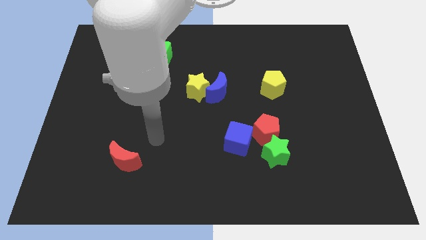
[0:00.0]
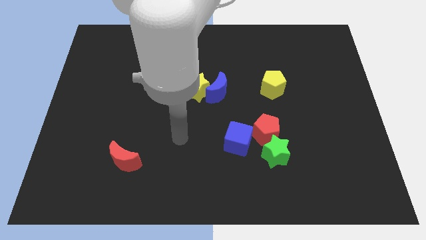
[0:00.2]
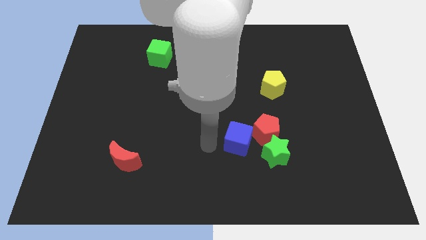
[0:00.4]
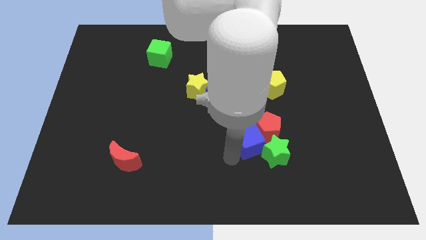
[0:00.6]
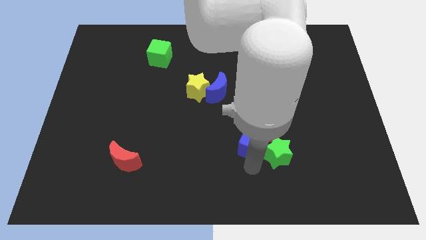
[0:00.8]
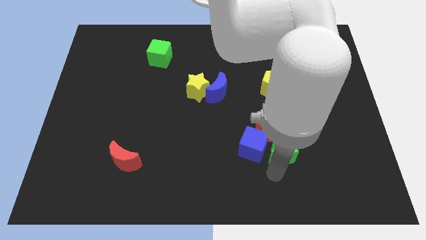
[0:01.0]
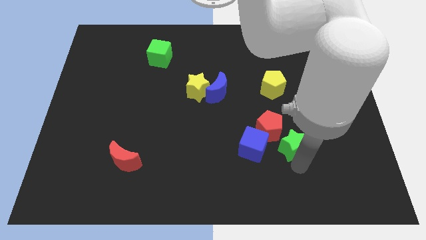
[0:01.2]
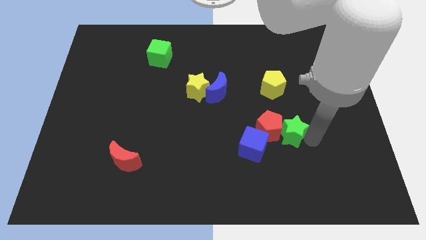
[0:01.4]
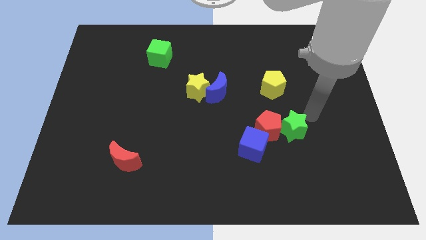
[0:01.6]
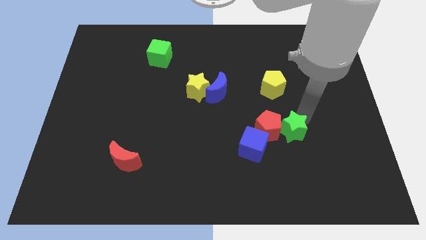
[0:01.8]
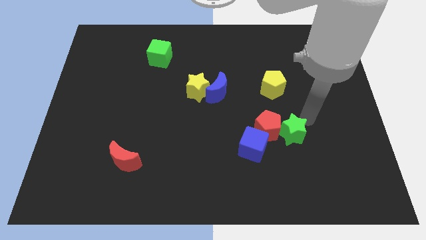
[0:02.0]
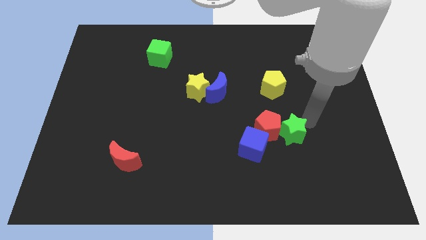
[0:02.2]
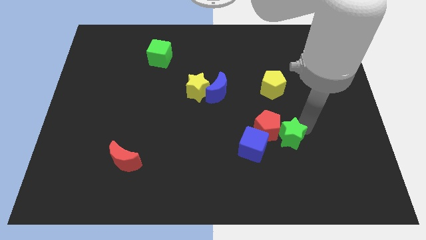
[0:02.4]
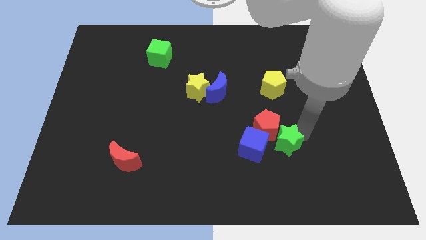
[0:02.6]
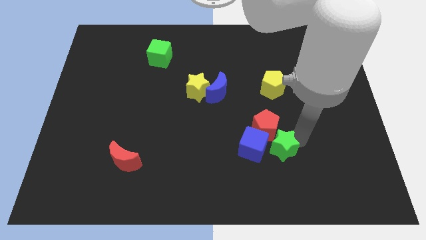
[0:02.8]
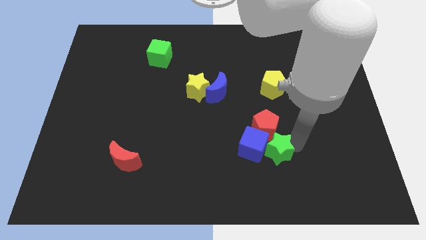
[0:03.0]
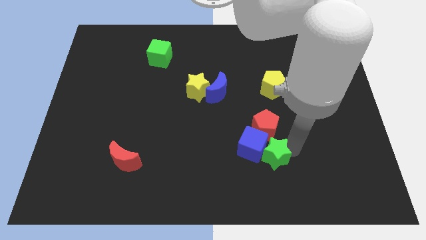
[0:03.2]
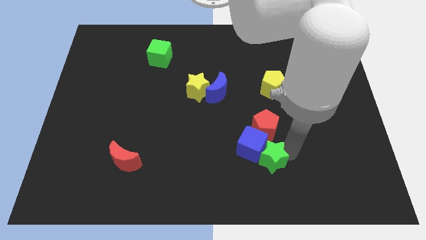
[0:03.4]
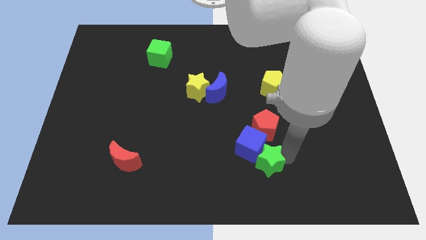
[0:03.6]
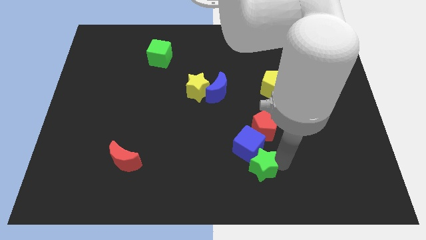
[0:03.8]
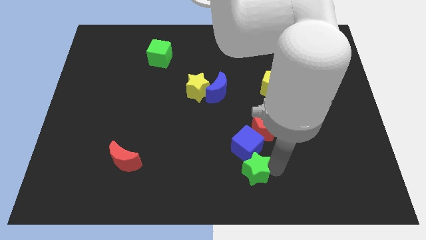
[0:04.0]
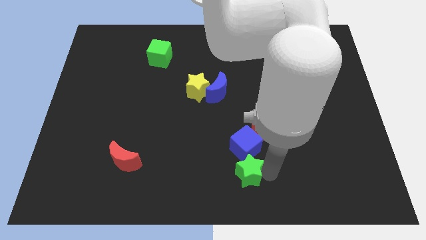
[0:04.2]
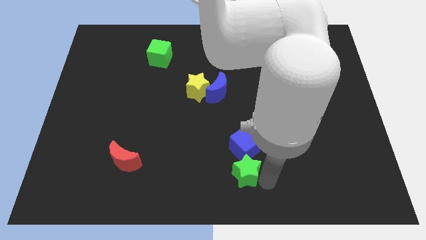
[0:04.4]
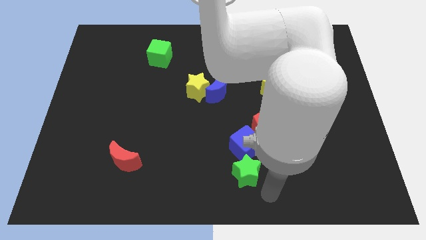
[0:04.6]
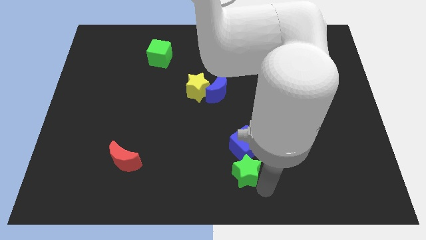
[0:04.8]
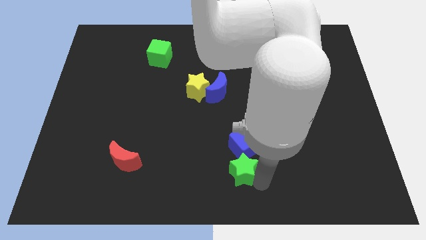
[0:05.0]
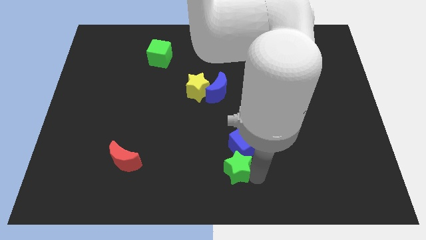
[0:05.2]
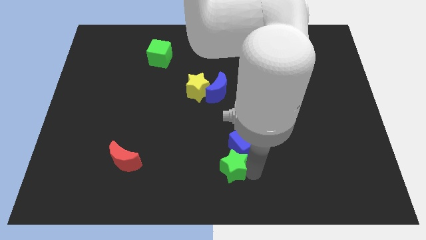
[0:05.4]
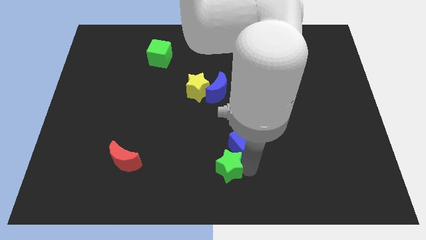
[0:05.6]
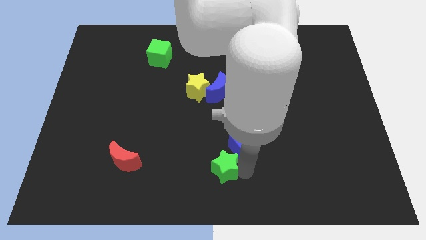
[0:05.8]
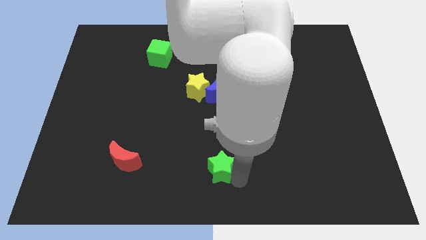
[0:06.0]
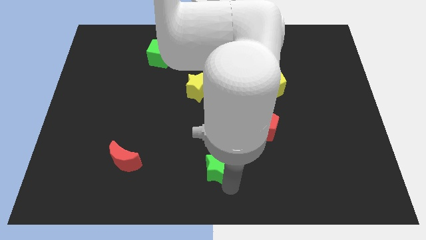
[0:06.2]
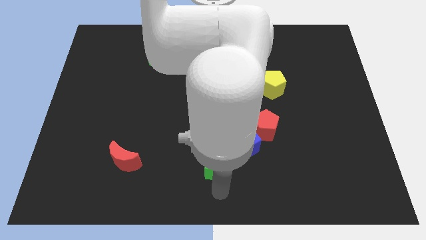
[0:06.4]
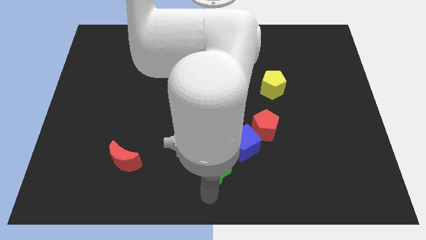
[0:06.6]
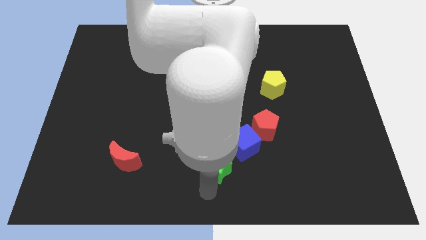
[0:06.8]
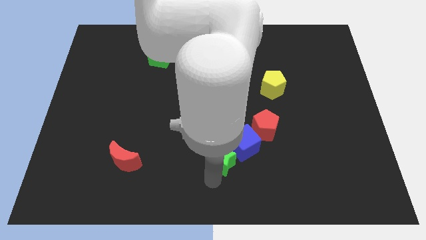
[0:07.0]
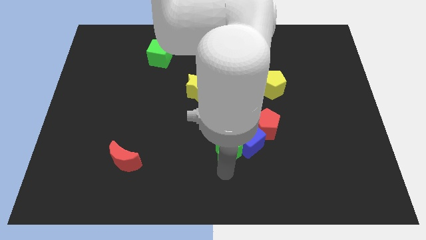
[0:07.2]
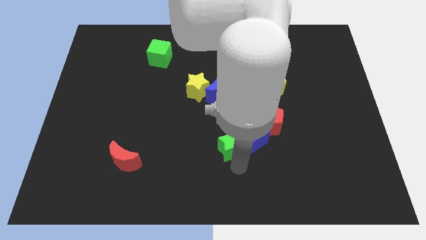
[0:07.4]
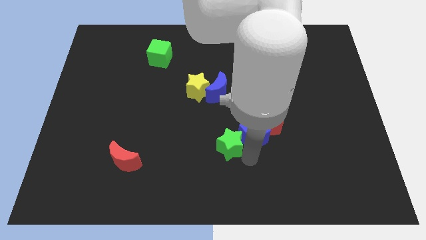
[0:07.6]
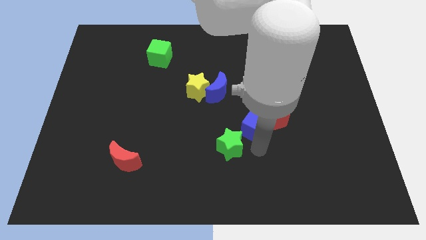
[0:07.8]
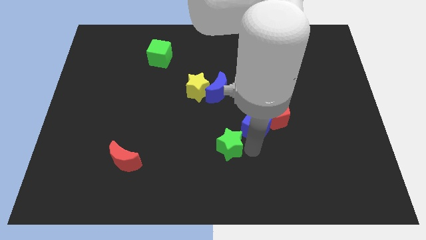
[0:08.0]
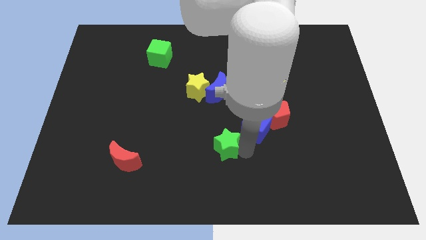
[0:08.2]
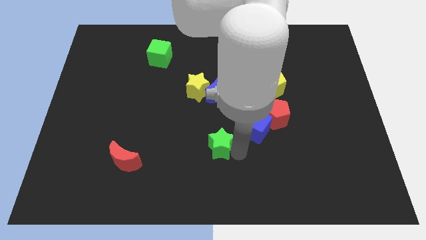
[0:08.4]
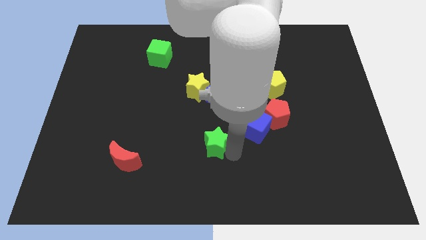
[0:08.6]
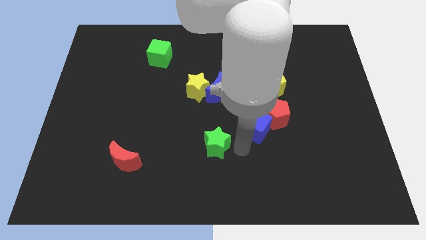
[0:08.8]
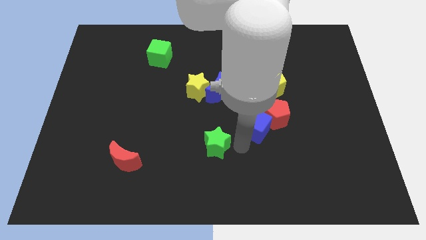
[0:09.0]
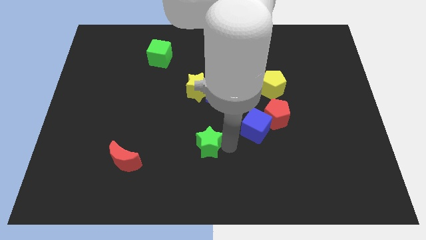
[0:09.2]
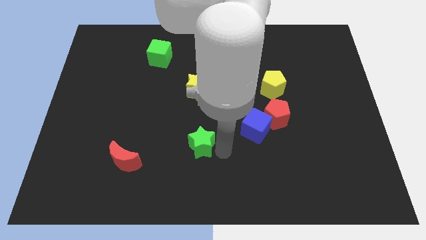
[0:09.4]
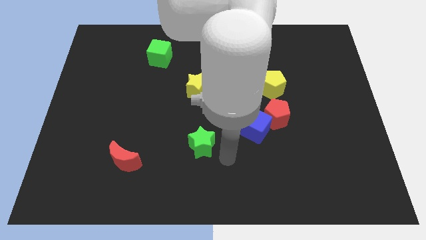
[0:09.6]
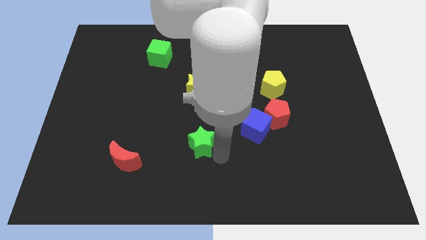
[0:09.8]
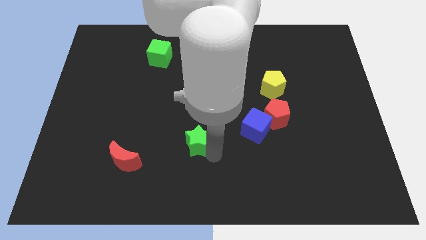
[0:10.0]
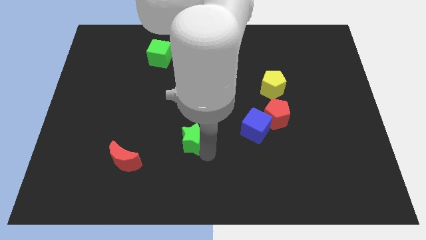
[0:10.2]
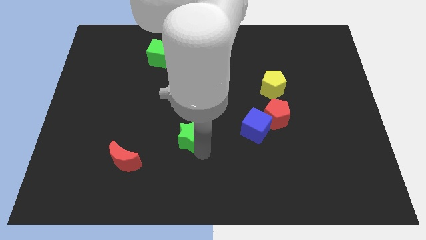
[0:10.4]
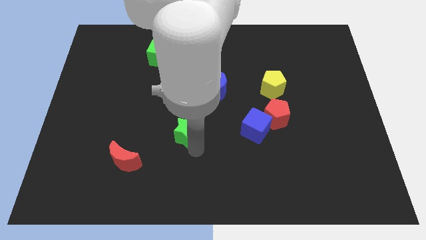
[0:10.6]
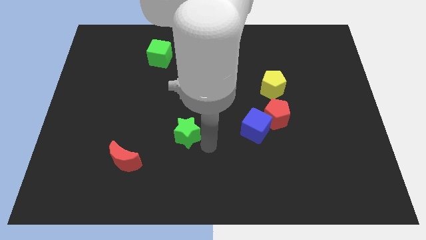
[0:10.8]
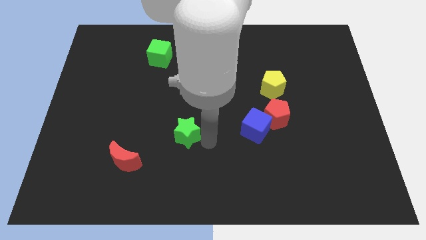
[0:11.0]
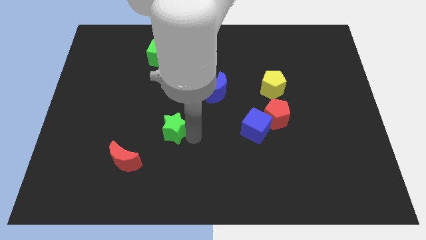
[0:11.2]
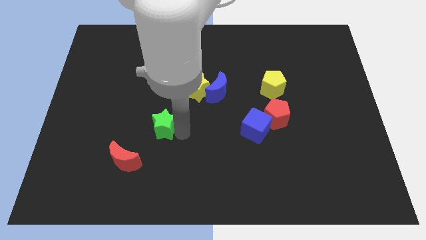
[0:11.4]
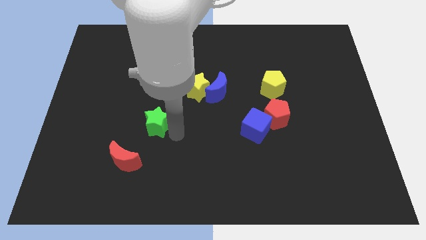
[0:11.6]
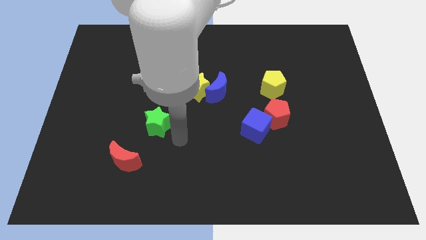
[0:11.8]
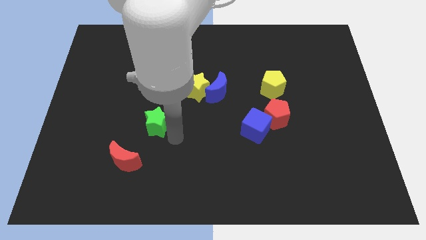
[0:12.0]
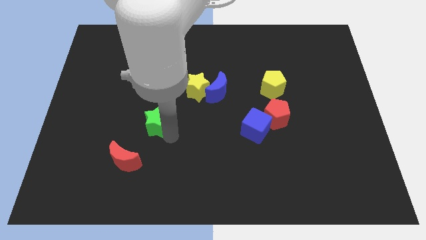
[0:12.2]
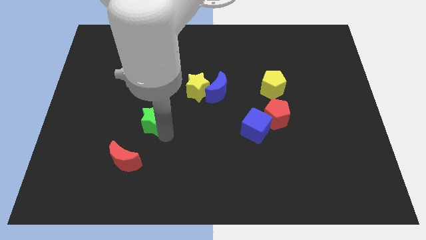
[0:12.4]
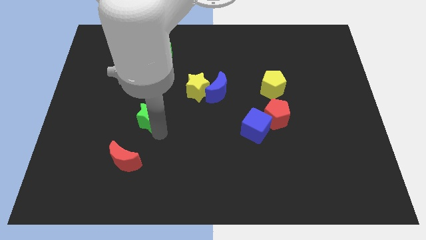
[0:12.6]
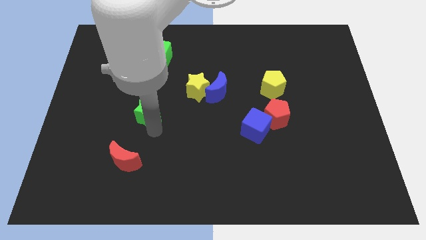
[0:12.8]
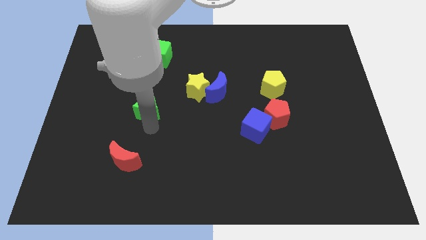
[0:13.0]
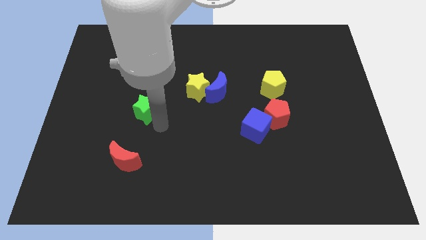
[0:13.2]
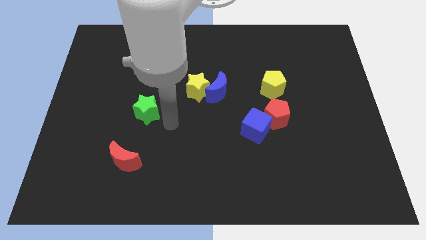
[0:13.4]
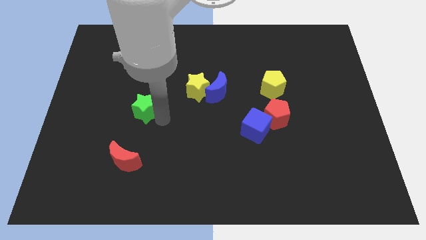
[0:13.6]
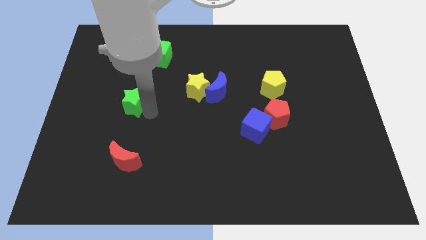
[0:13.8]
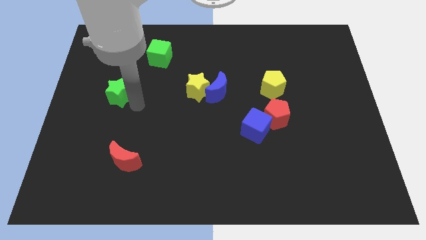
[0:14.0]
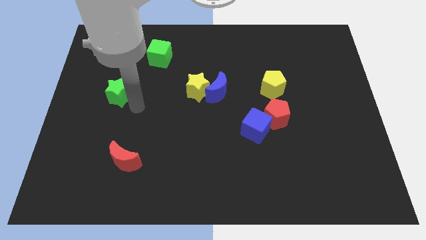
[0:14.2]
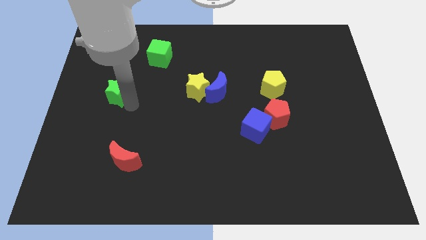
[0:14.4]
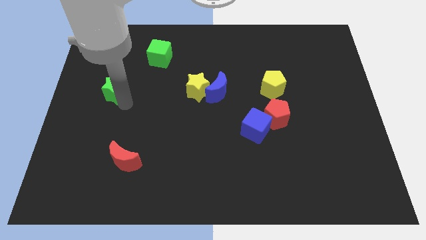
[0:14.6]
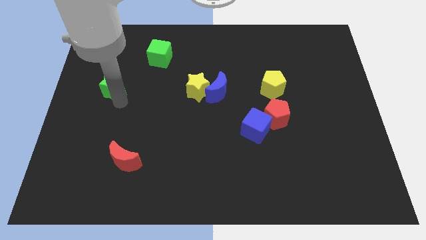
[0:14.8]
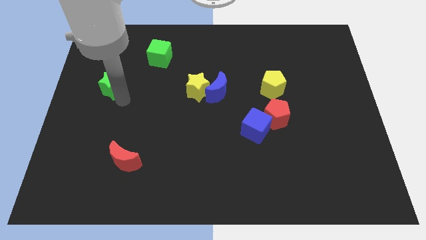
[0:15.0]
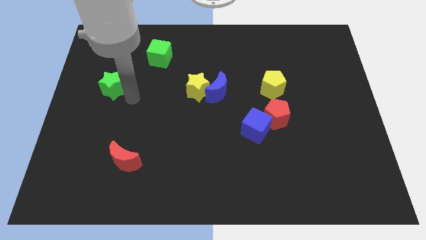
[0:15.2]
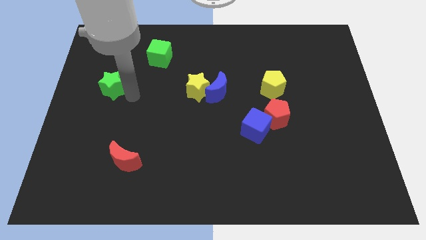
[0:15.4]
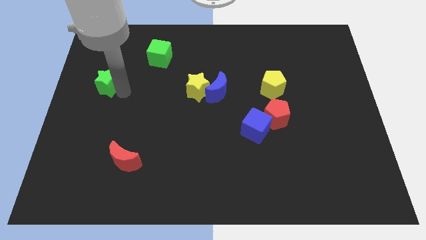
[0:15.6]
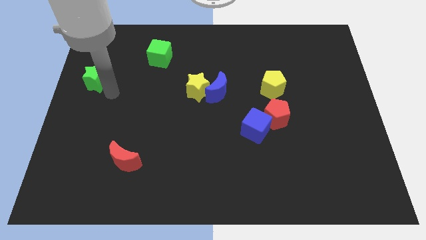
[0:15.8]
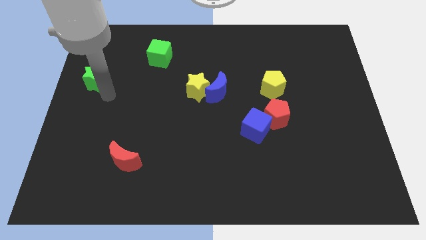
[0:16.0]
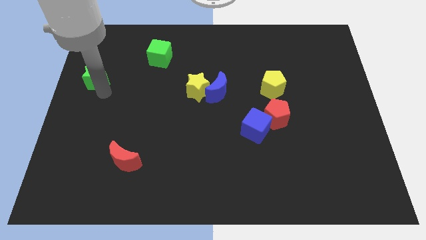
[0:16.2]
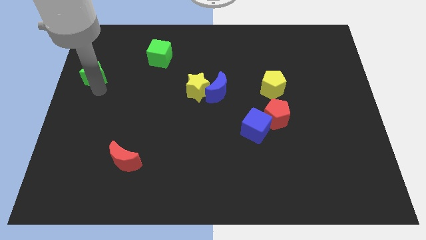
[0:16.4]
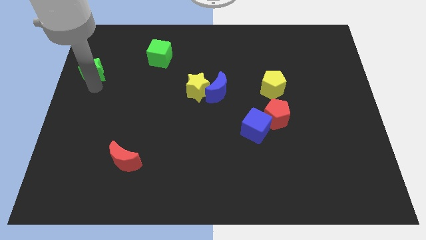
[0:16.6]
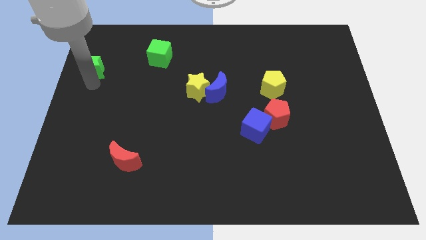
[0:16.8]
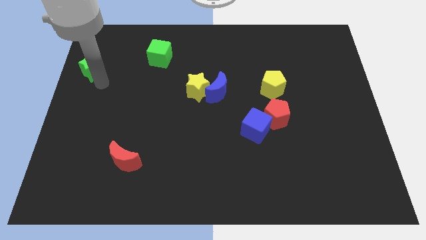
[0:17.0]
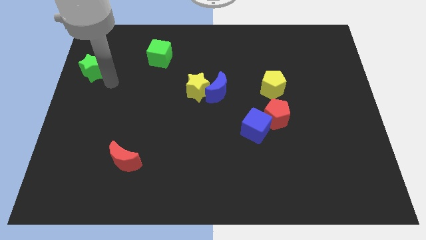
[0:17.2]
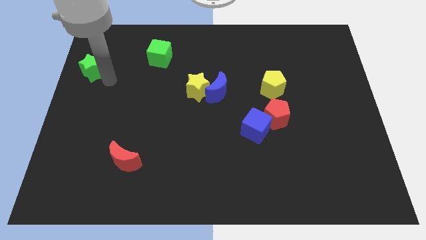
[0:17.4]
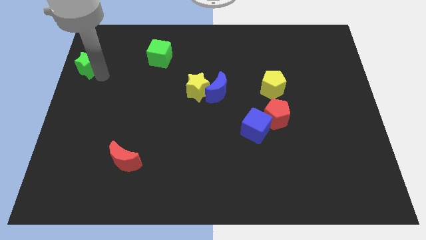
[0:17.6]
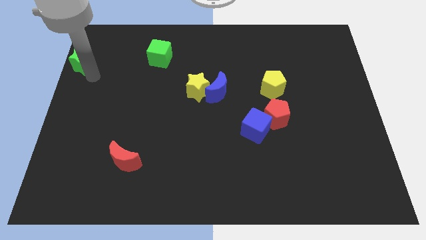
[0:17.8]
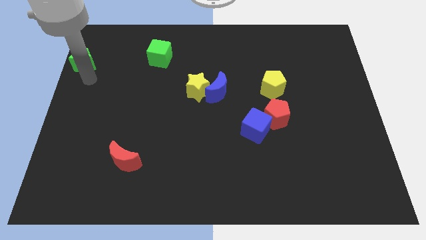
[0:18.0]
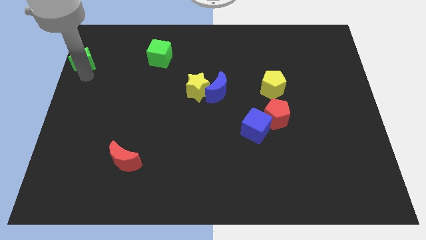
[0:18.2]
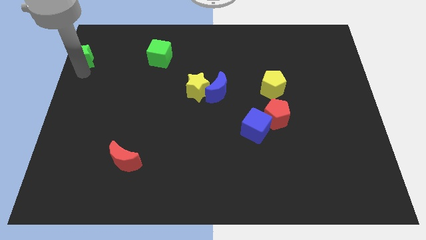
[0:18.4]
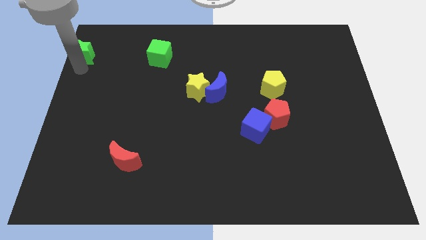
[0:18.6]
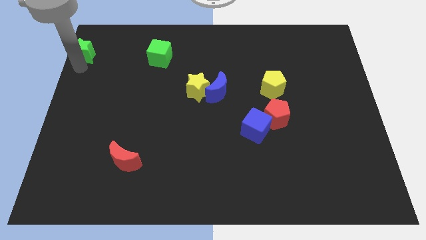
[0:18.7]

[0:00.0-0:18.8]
move the green star to the top left corner
